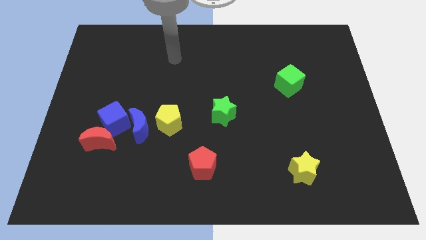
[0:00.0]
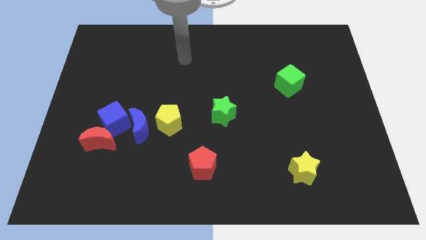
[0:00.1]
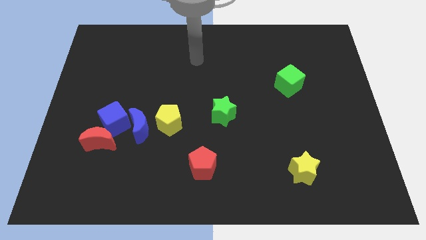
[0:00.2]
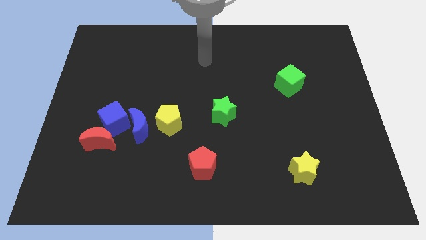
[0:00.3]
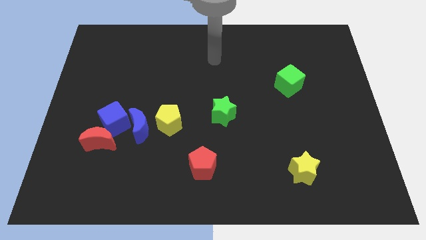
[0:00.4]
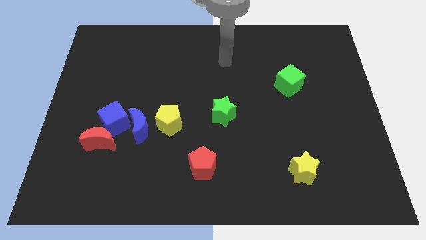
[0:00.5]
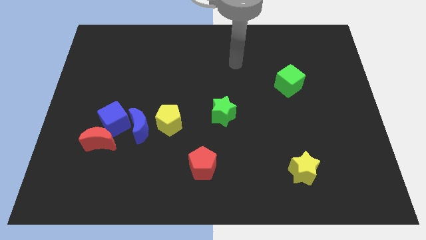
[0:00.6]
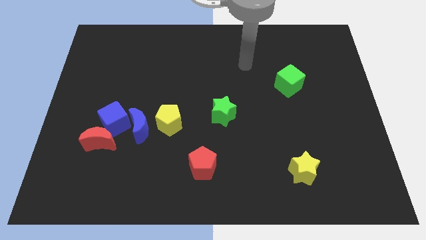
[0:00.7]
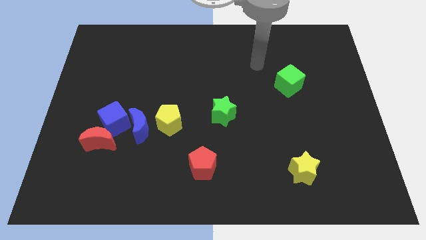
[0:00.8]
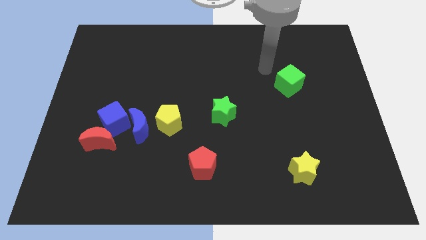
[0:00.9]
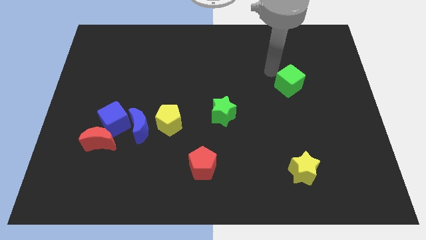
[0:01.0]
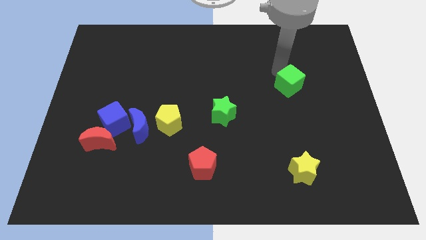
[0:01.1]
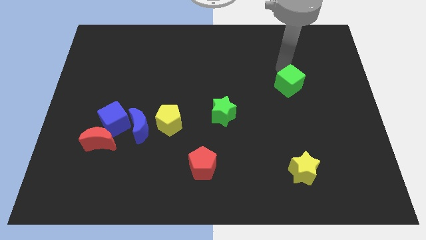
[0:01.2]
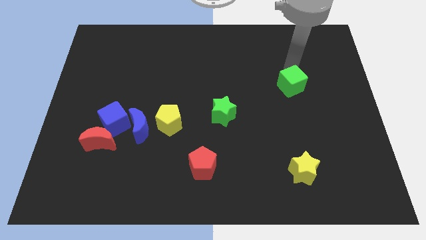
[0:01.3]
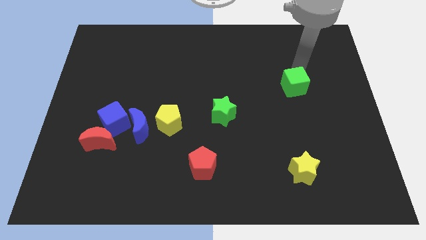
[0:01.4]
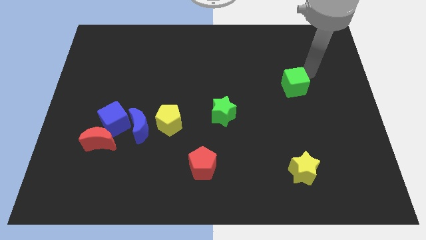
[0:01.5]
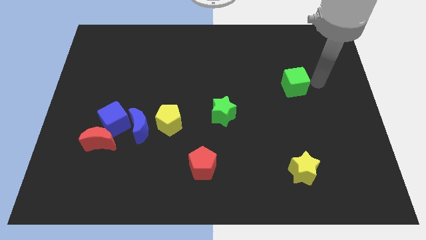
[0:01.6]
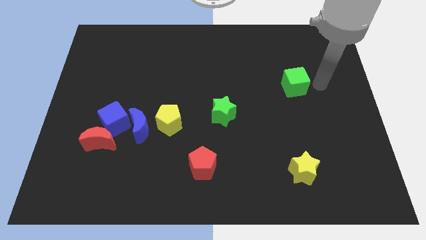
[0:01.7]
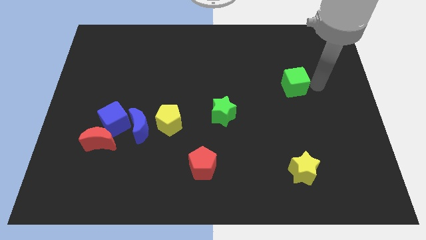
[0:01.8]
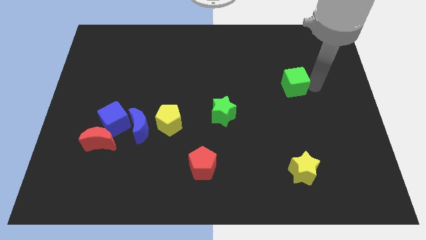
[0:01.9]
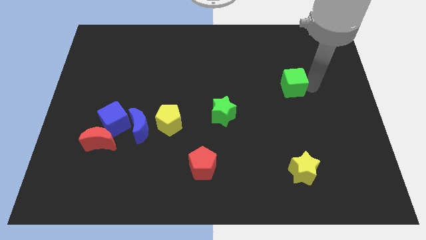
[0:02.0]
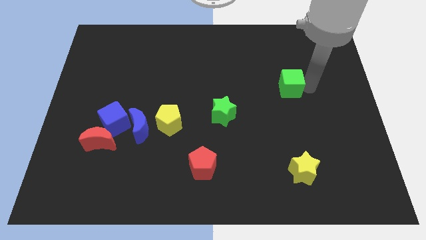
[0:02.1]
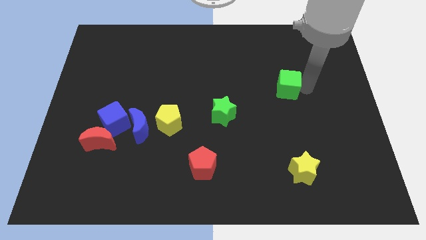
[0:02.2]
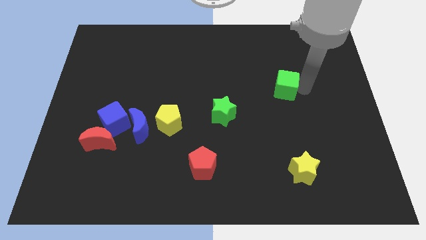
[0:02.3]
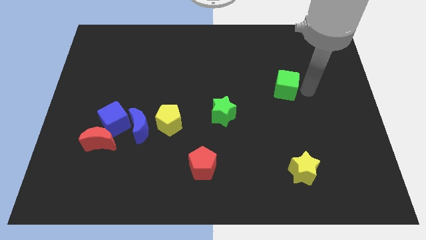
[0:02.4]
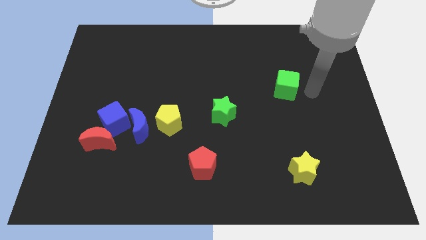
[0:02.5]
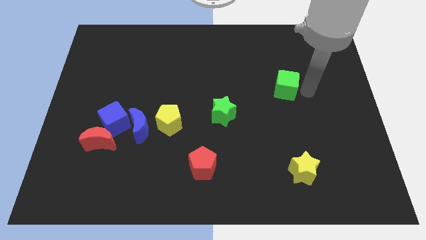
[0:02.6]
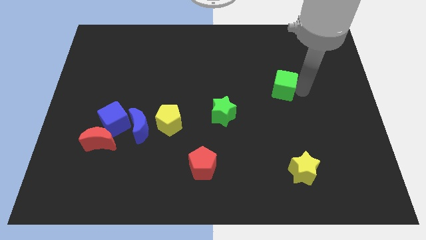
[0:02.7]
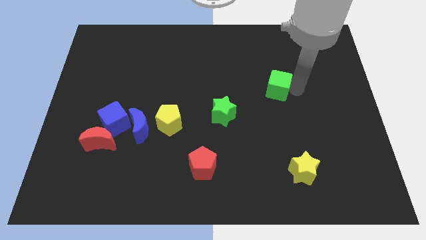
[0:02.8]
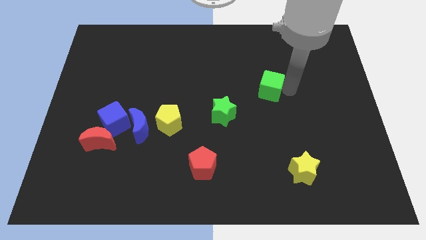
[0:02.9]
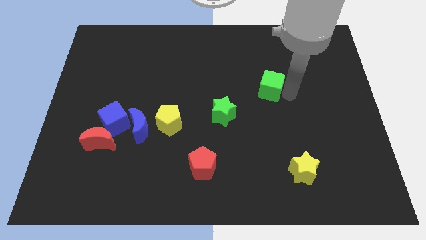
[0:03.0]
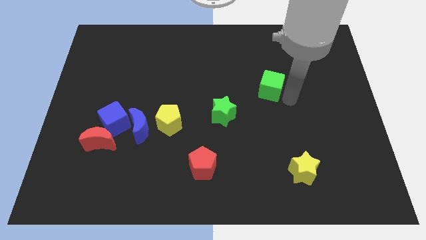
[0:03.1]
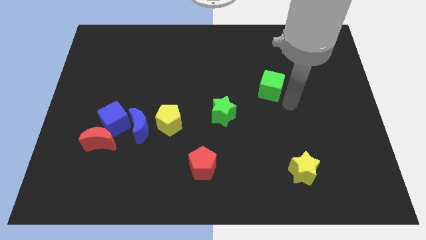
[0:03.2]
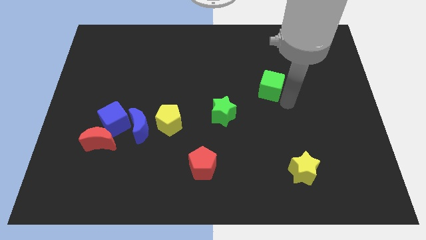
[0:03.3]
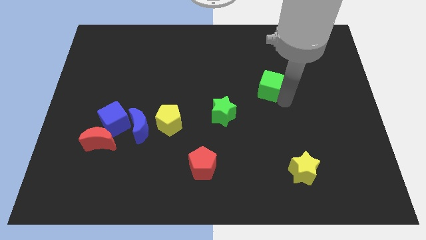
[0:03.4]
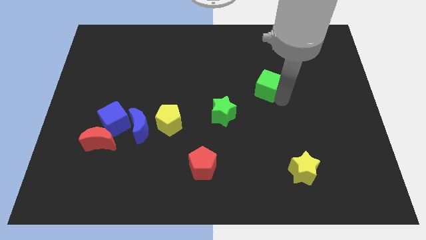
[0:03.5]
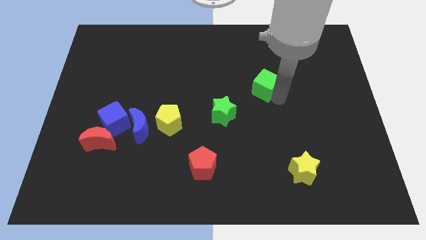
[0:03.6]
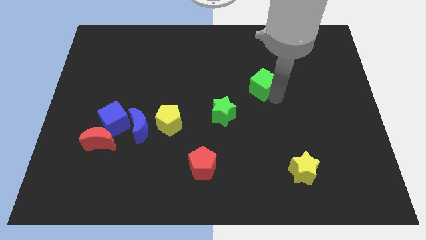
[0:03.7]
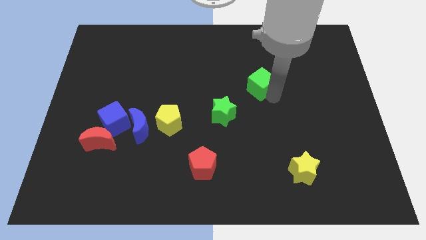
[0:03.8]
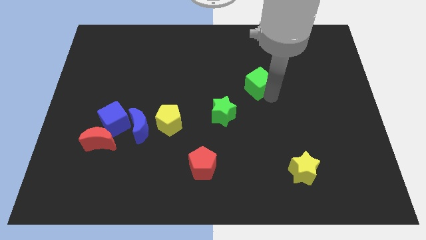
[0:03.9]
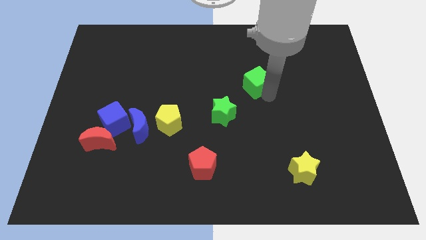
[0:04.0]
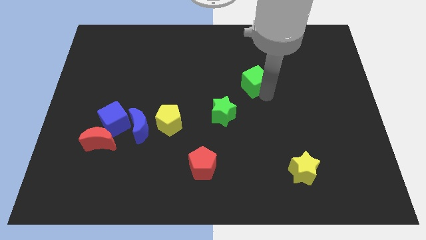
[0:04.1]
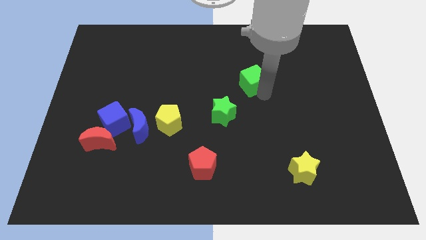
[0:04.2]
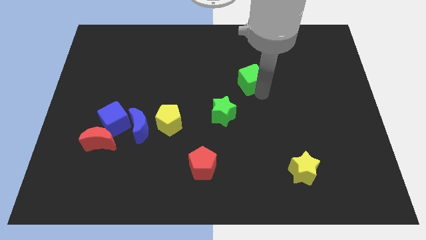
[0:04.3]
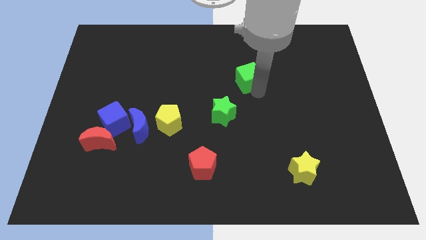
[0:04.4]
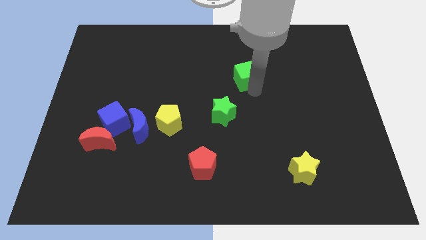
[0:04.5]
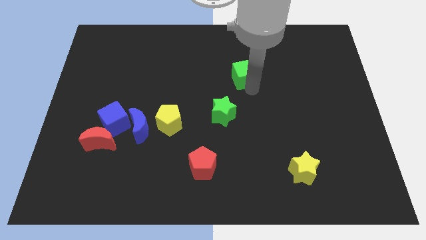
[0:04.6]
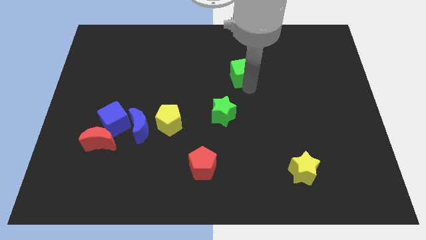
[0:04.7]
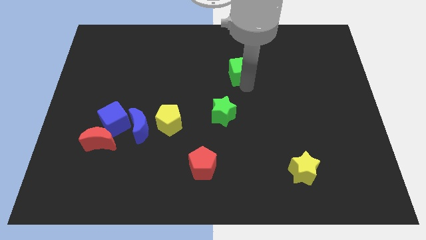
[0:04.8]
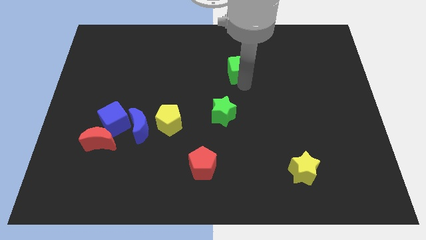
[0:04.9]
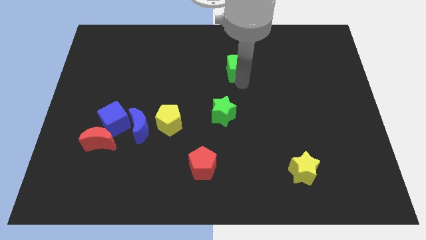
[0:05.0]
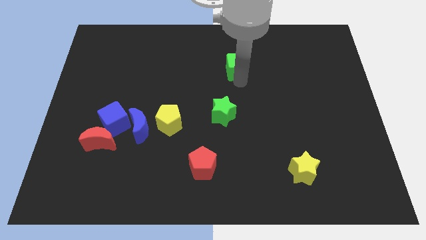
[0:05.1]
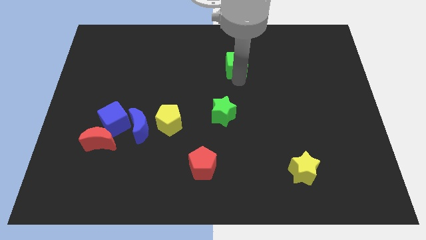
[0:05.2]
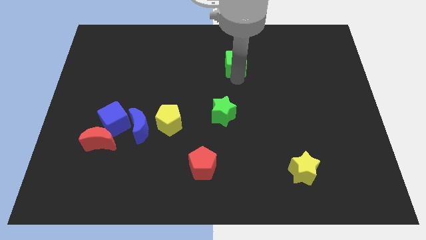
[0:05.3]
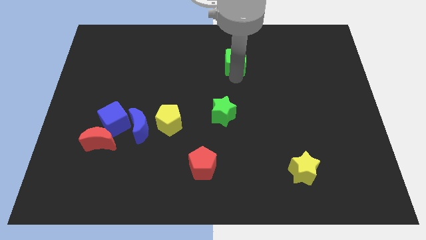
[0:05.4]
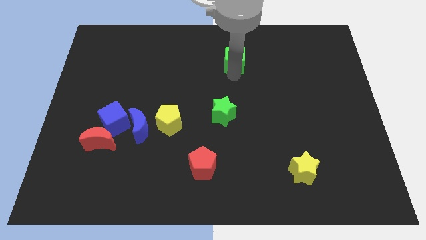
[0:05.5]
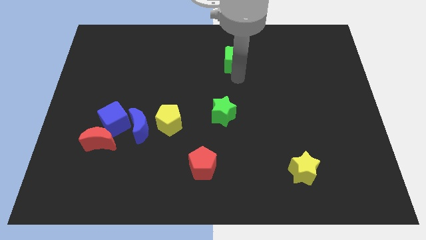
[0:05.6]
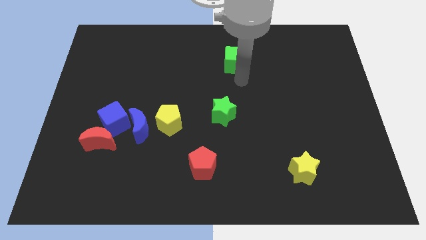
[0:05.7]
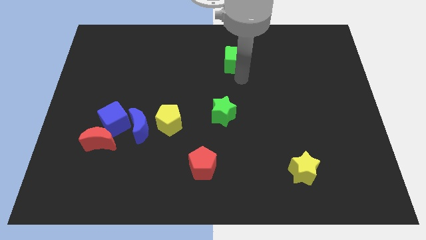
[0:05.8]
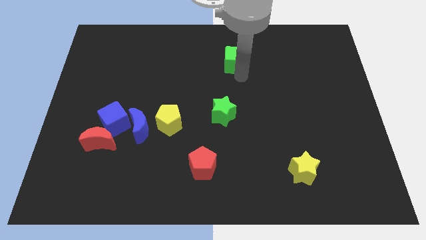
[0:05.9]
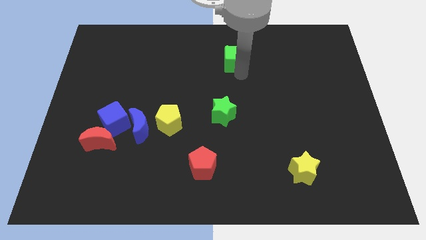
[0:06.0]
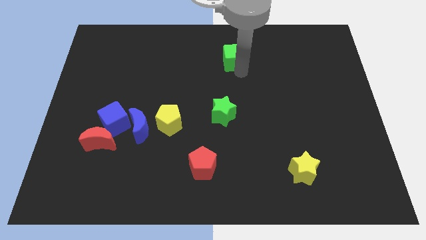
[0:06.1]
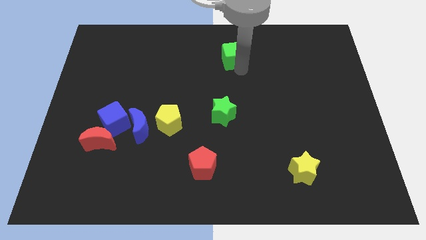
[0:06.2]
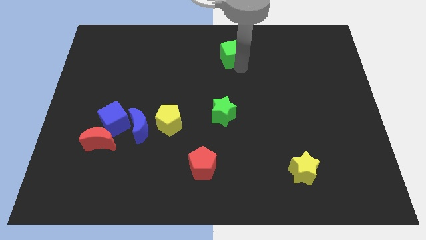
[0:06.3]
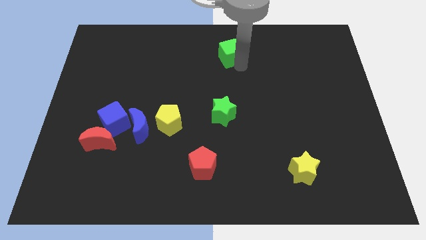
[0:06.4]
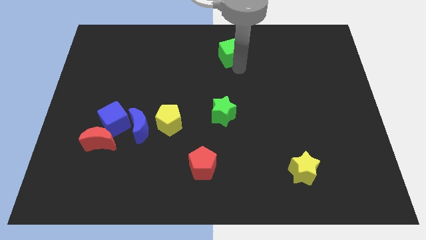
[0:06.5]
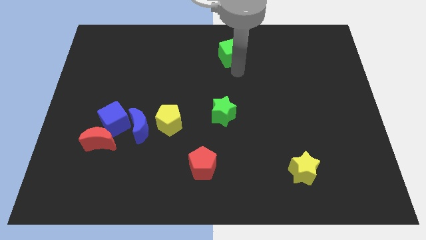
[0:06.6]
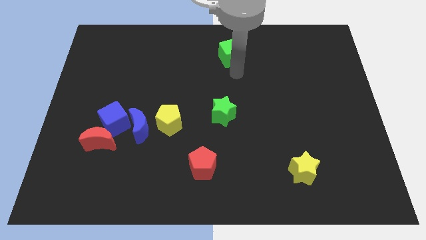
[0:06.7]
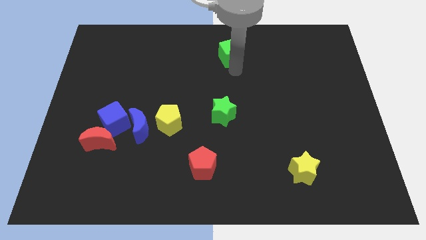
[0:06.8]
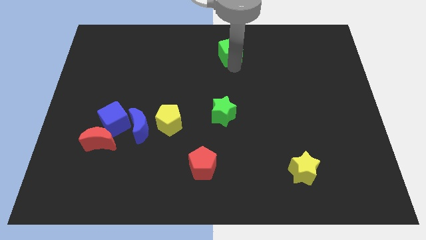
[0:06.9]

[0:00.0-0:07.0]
put the green cube to the top side
